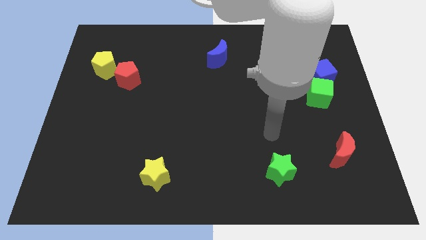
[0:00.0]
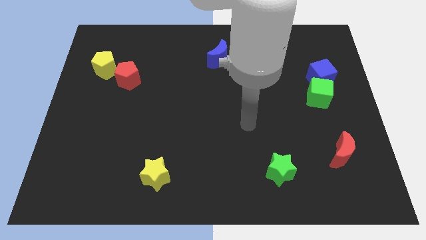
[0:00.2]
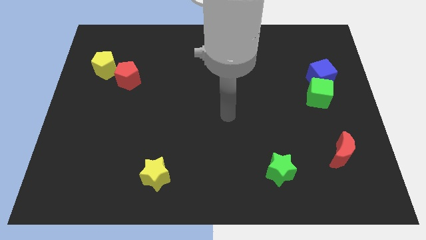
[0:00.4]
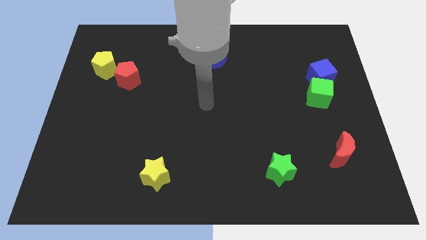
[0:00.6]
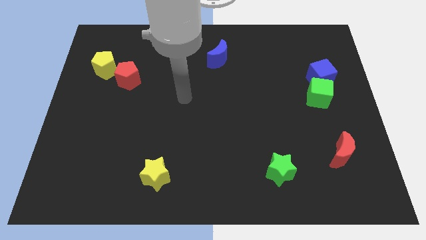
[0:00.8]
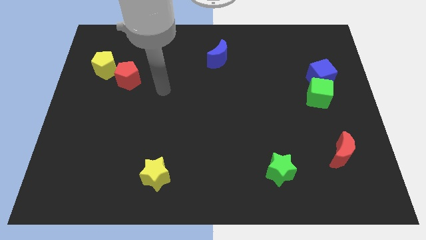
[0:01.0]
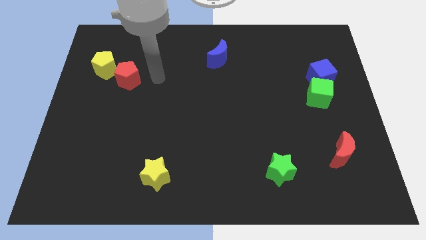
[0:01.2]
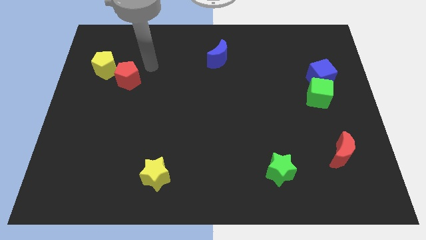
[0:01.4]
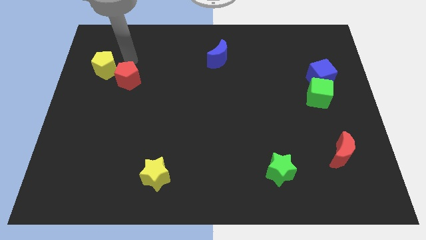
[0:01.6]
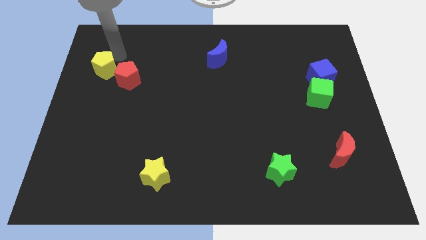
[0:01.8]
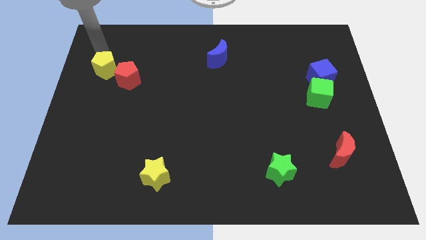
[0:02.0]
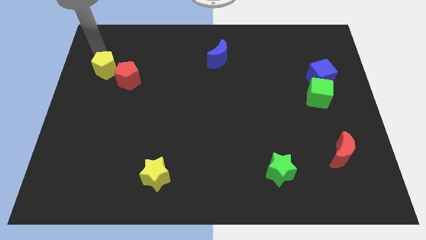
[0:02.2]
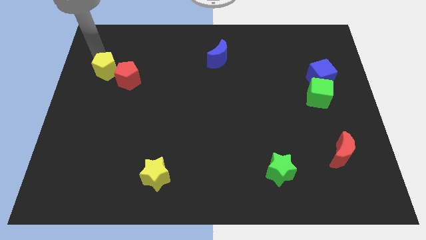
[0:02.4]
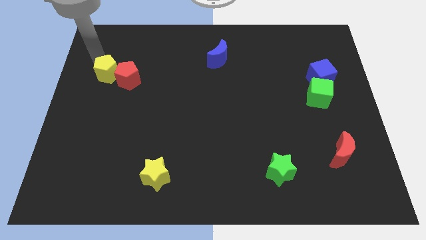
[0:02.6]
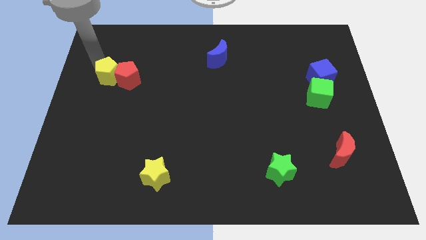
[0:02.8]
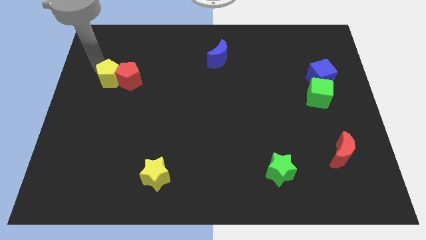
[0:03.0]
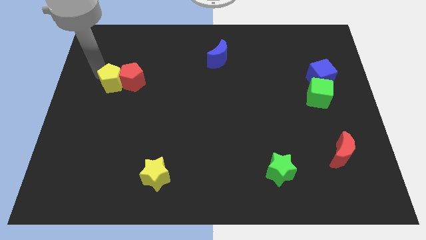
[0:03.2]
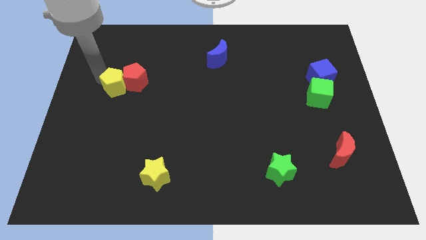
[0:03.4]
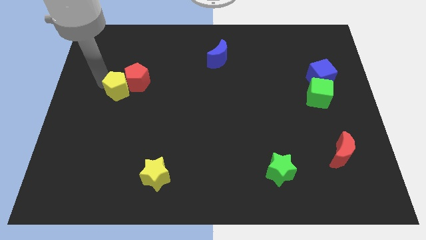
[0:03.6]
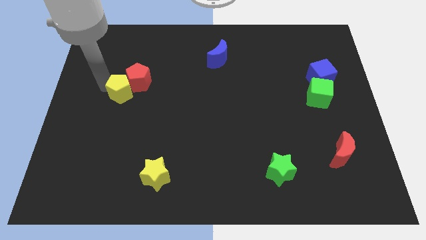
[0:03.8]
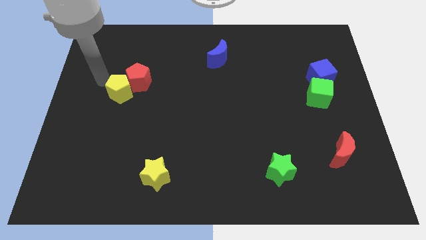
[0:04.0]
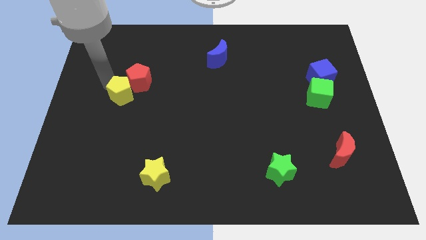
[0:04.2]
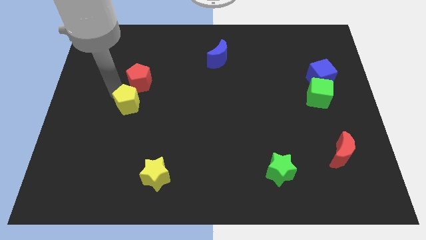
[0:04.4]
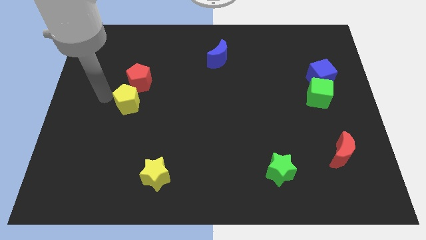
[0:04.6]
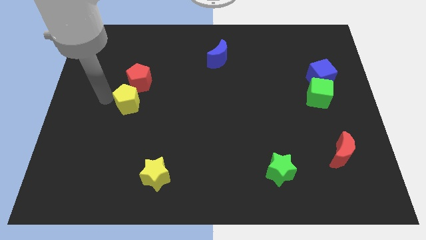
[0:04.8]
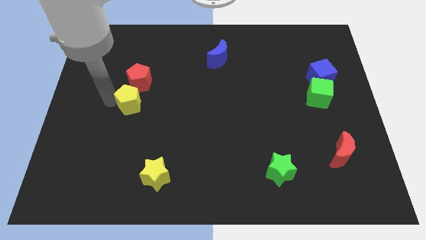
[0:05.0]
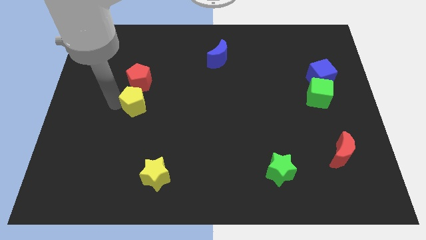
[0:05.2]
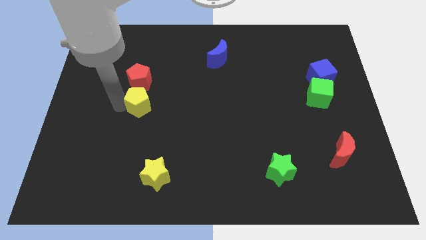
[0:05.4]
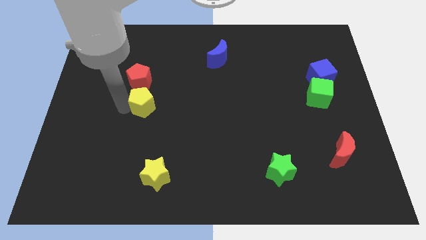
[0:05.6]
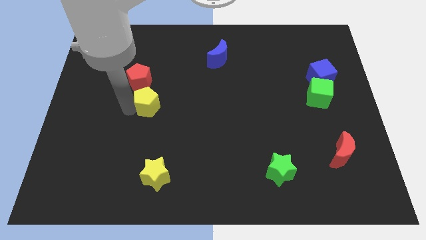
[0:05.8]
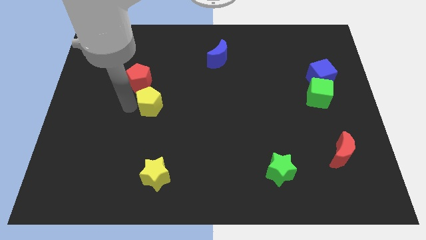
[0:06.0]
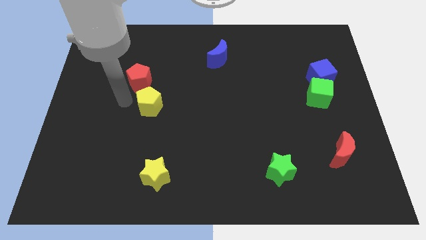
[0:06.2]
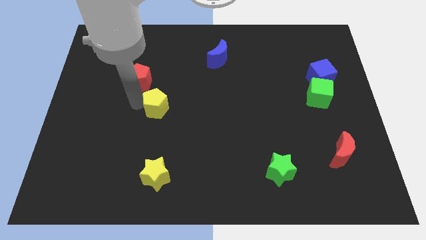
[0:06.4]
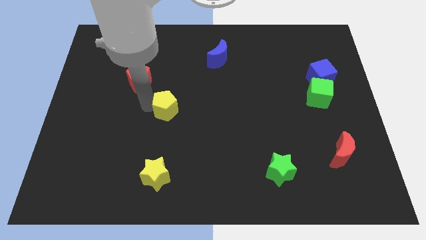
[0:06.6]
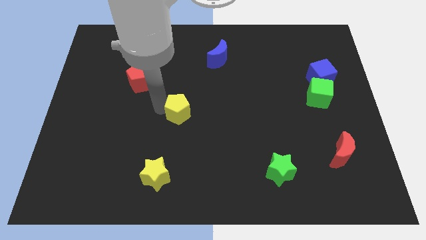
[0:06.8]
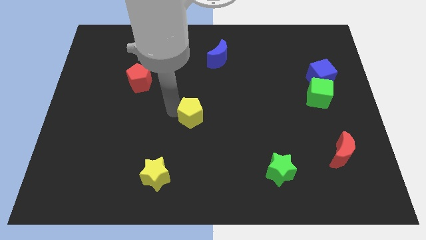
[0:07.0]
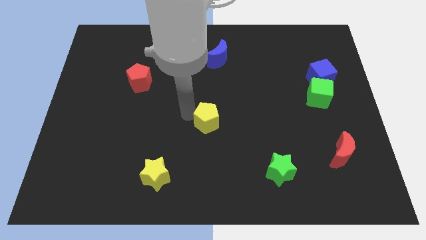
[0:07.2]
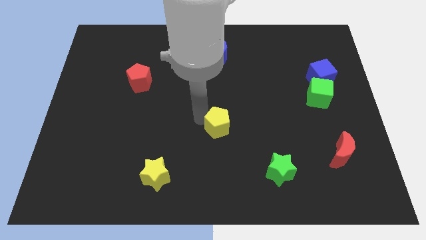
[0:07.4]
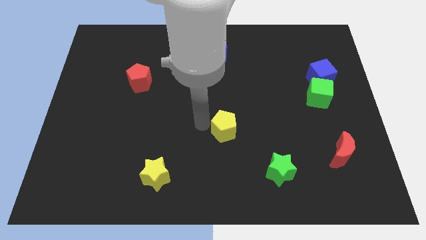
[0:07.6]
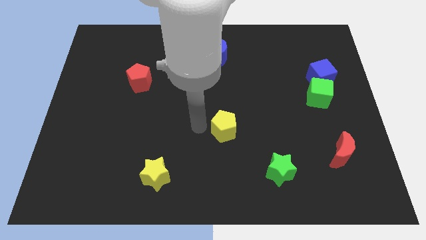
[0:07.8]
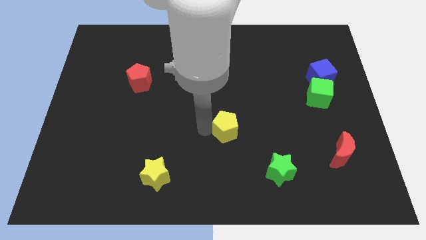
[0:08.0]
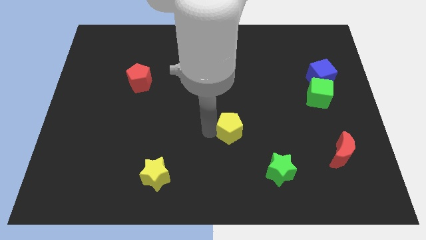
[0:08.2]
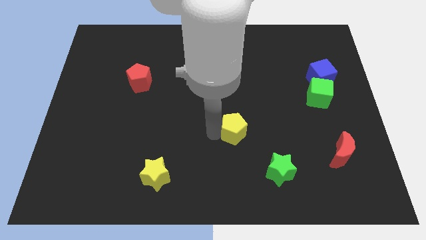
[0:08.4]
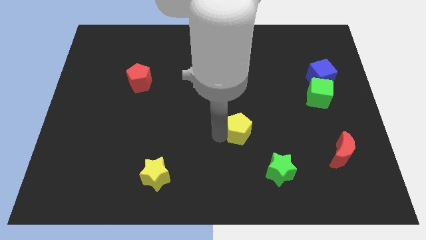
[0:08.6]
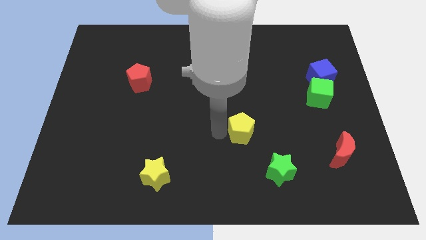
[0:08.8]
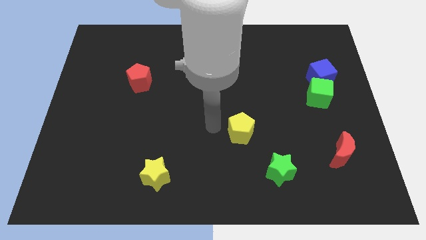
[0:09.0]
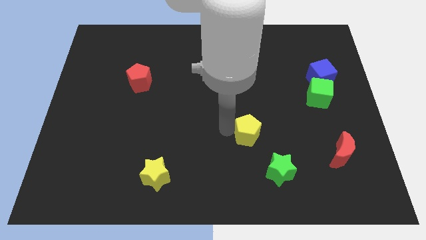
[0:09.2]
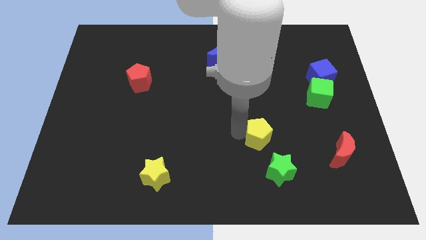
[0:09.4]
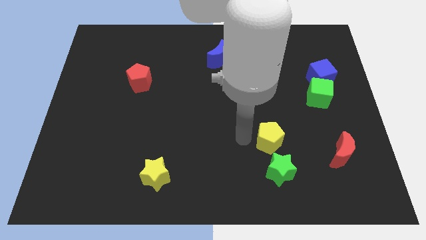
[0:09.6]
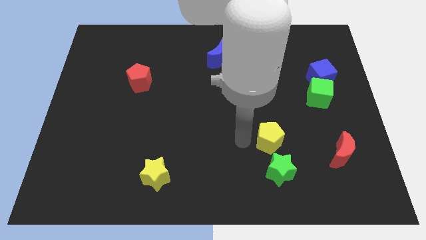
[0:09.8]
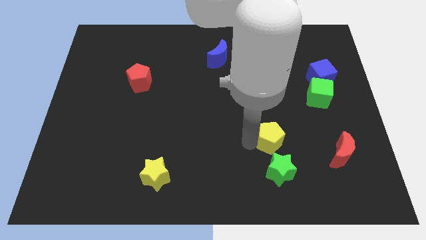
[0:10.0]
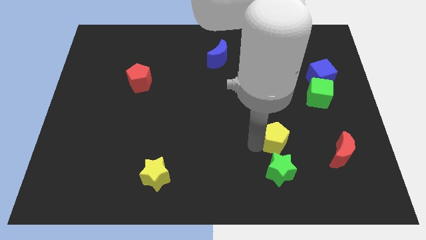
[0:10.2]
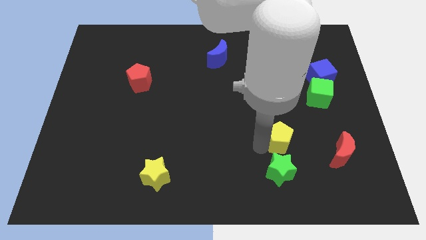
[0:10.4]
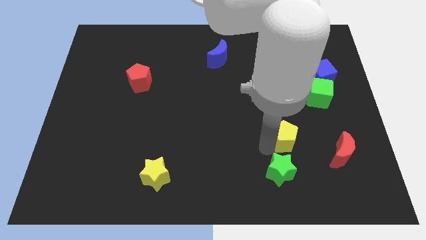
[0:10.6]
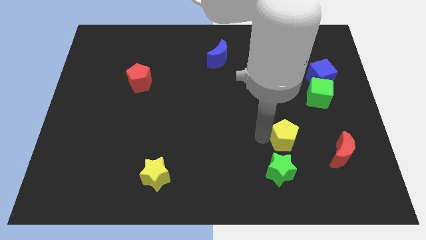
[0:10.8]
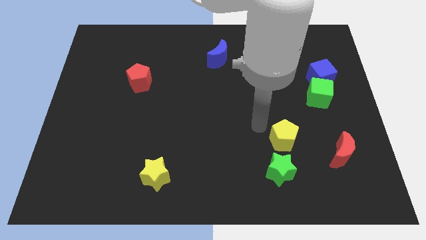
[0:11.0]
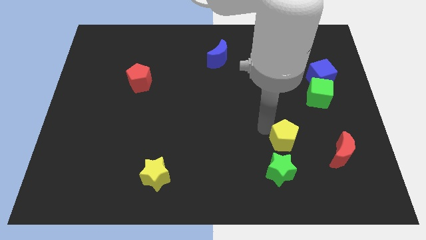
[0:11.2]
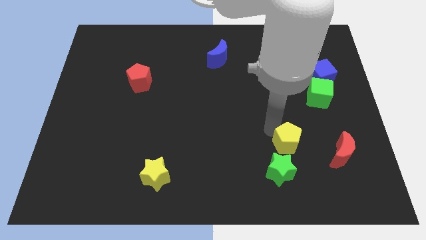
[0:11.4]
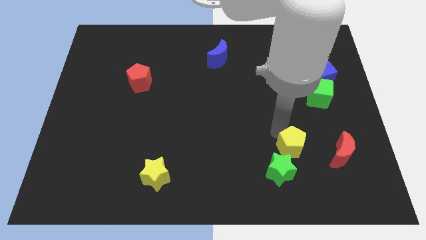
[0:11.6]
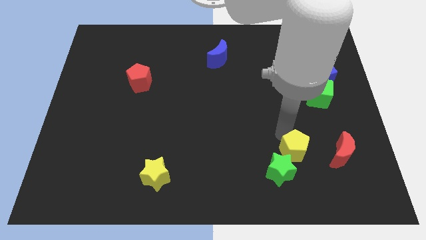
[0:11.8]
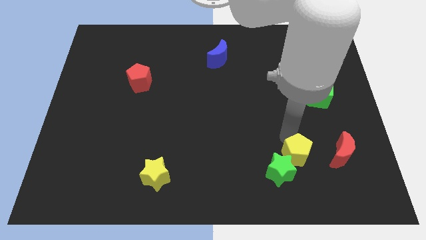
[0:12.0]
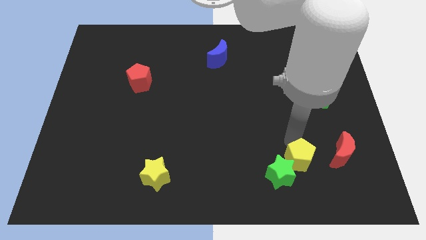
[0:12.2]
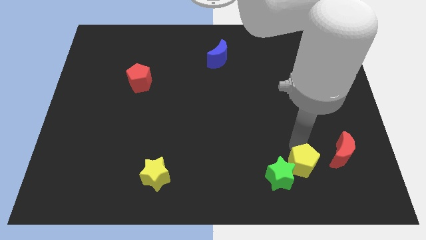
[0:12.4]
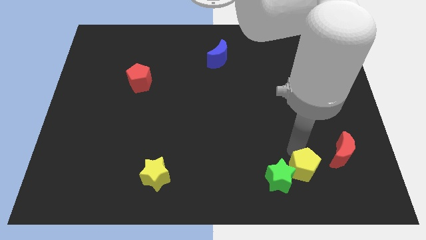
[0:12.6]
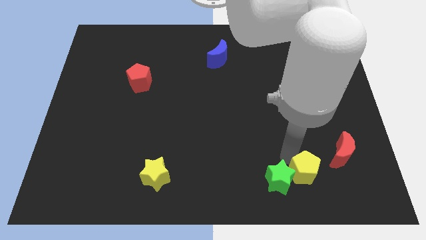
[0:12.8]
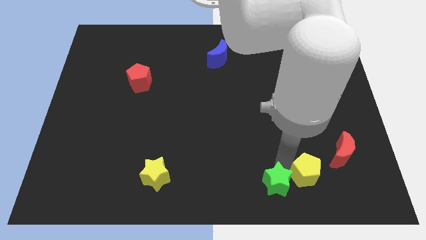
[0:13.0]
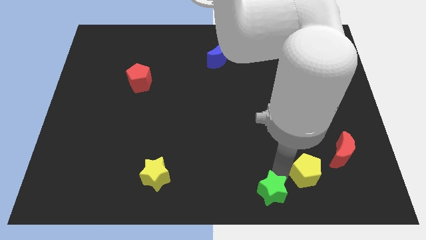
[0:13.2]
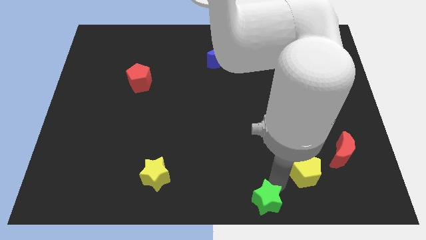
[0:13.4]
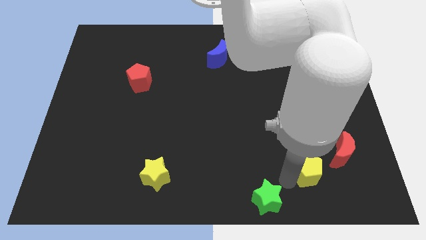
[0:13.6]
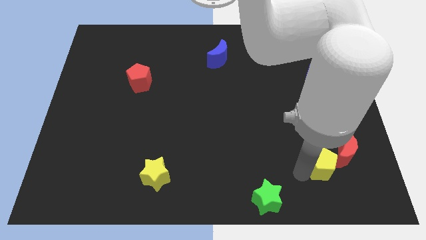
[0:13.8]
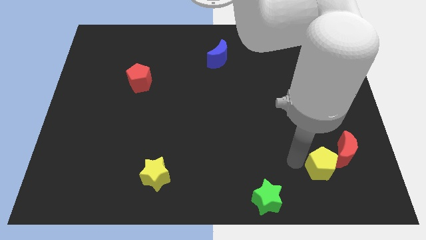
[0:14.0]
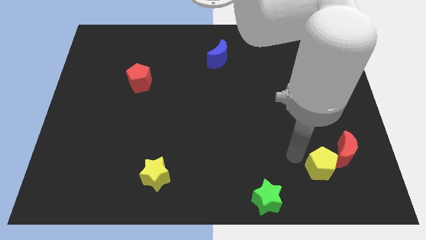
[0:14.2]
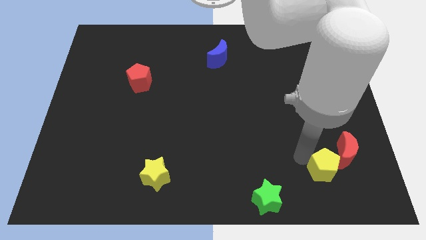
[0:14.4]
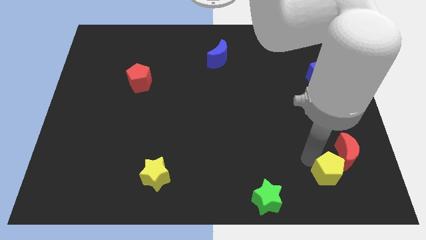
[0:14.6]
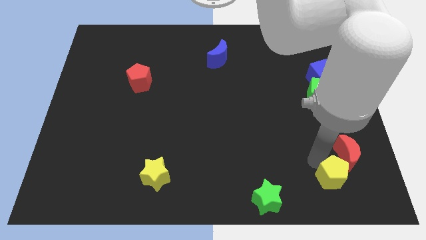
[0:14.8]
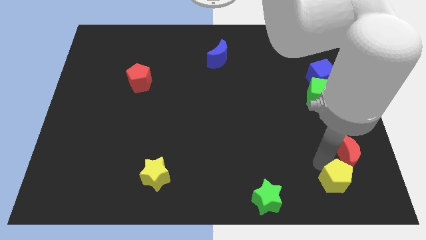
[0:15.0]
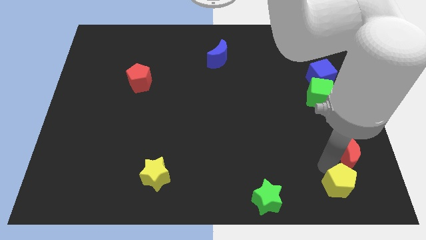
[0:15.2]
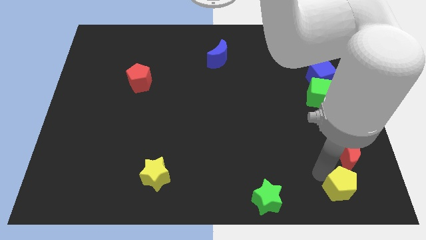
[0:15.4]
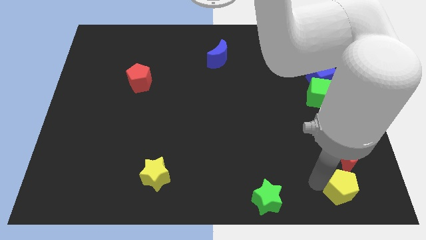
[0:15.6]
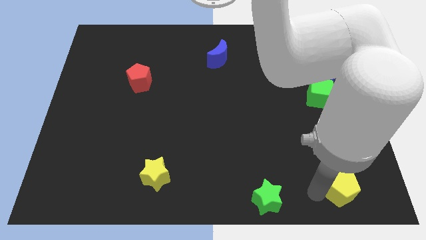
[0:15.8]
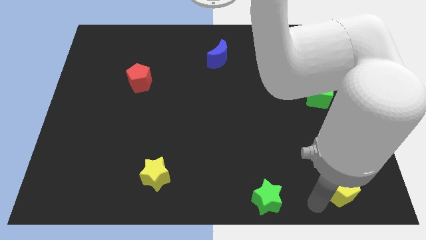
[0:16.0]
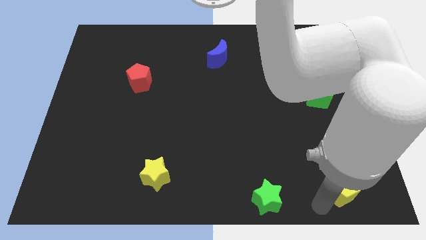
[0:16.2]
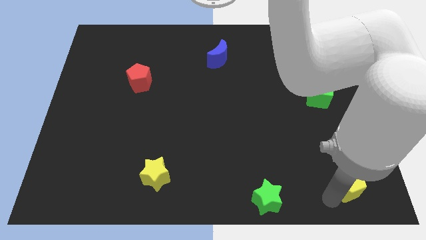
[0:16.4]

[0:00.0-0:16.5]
slide the yellow pentagon to the bottom right
